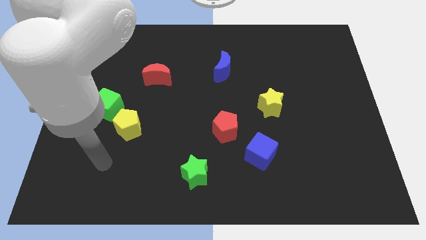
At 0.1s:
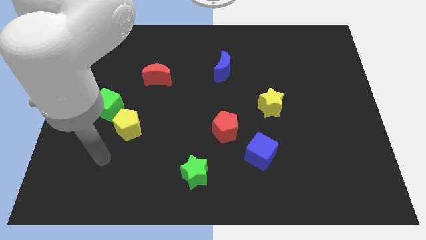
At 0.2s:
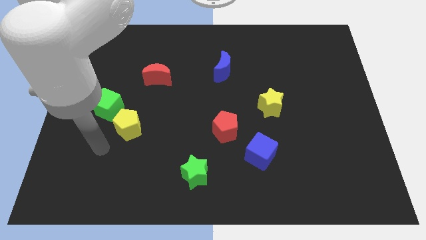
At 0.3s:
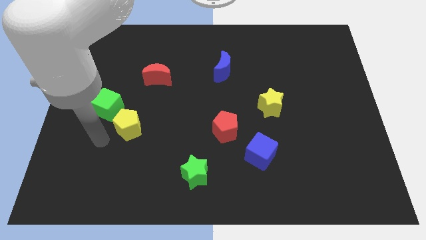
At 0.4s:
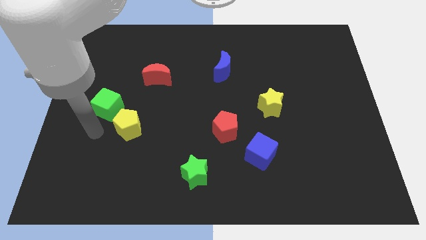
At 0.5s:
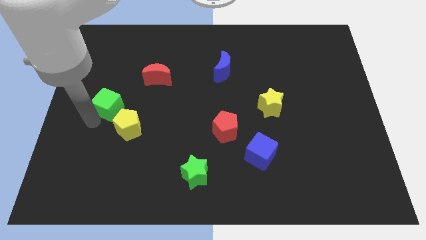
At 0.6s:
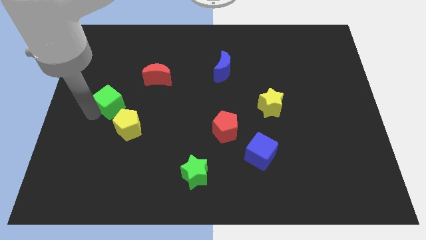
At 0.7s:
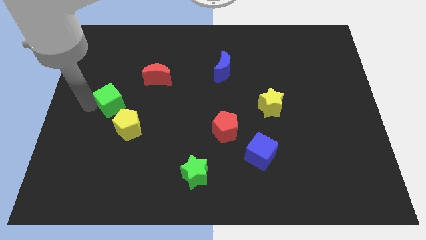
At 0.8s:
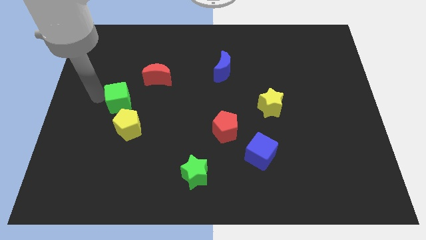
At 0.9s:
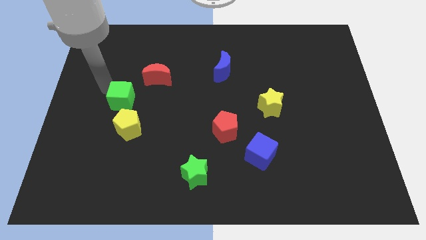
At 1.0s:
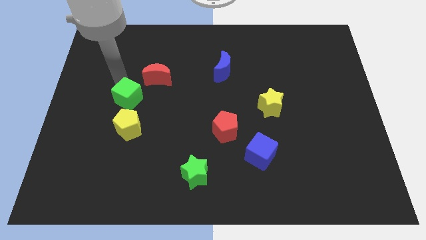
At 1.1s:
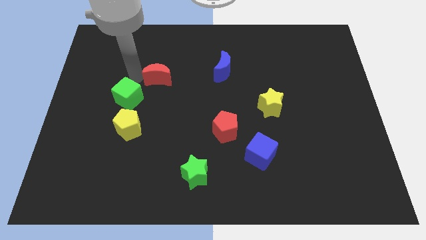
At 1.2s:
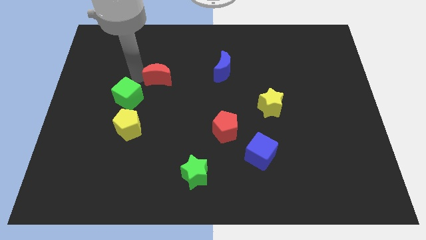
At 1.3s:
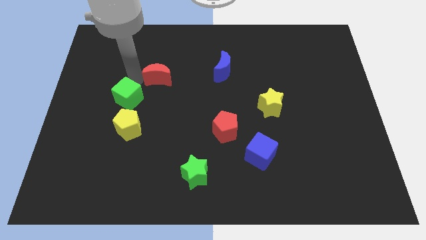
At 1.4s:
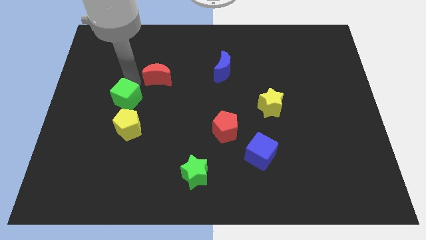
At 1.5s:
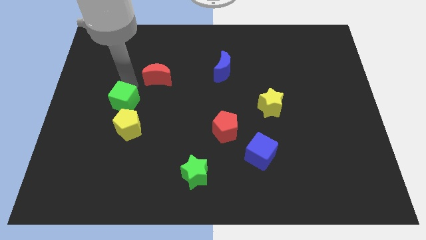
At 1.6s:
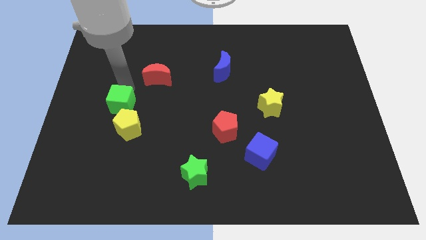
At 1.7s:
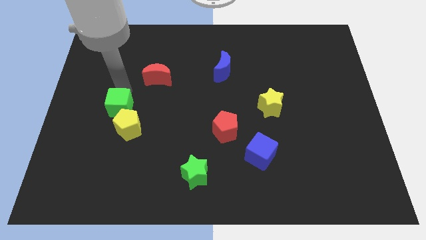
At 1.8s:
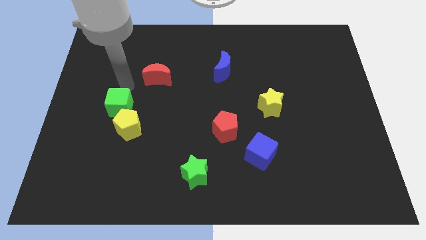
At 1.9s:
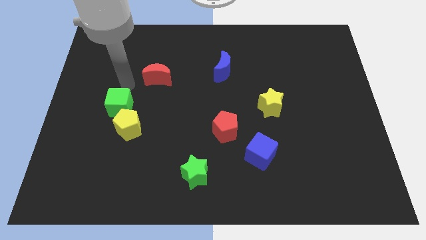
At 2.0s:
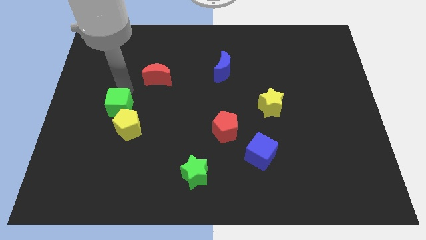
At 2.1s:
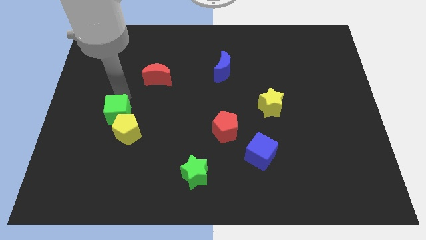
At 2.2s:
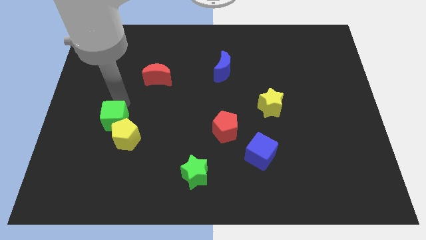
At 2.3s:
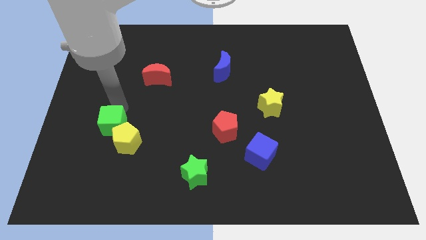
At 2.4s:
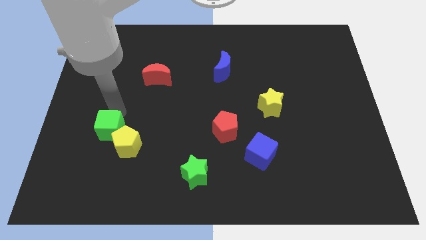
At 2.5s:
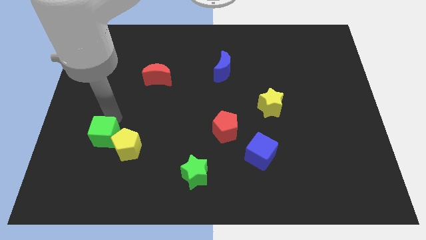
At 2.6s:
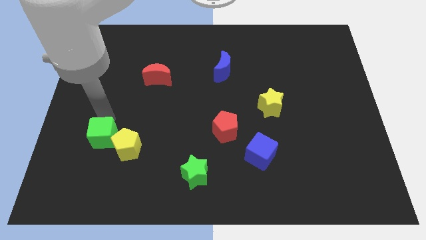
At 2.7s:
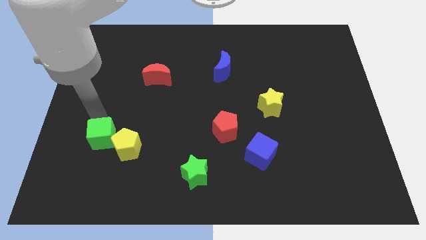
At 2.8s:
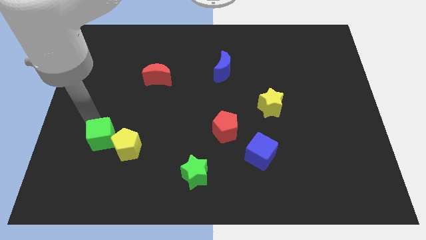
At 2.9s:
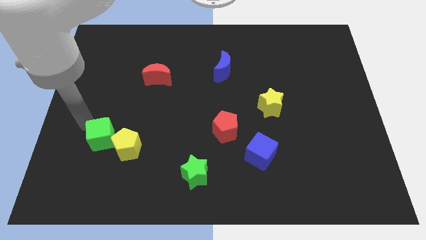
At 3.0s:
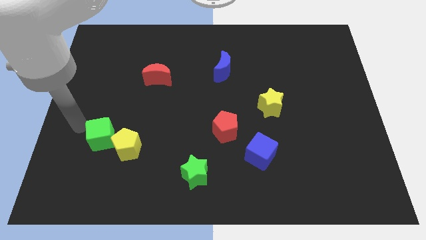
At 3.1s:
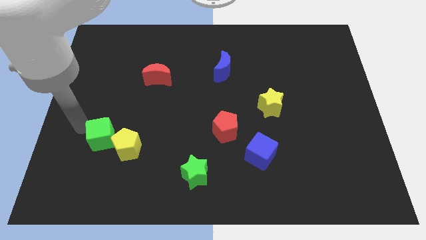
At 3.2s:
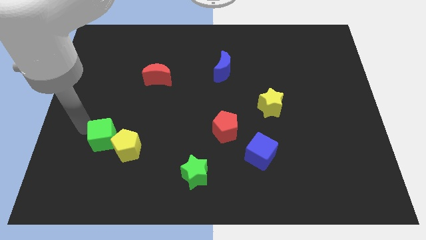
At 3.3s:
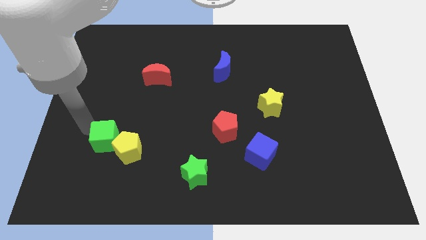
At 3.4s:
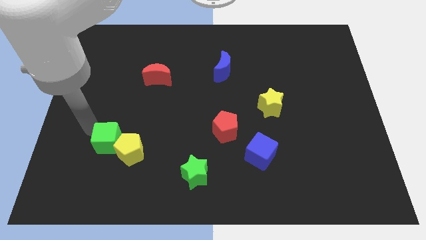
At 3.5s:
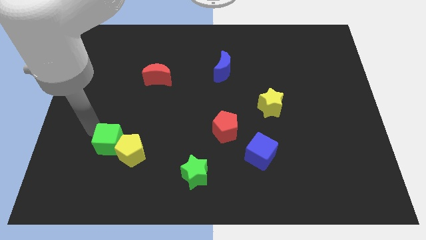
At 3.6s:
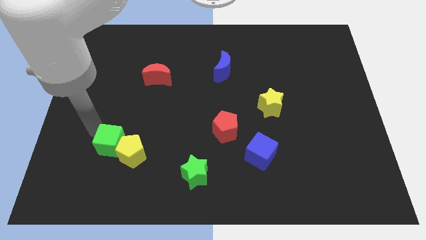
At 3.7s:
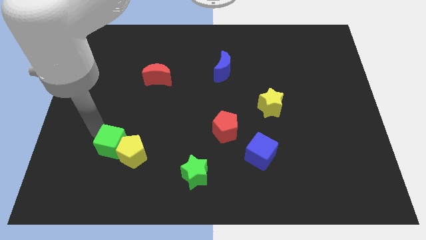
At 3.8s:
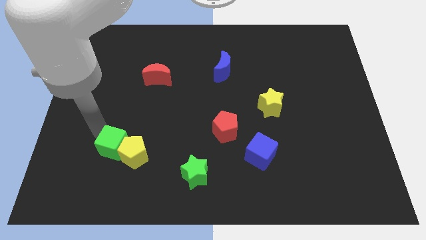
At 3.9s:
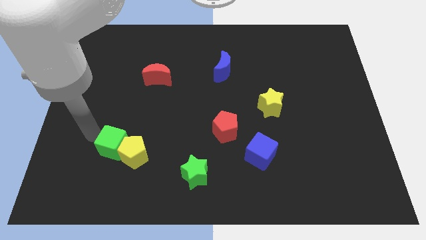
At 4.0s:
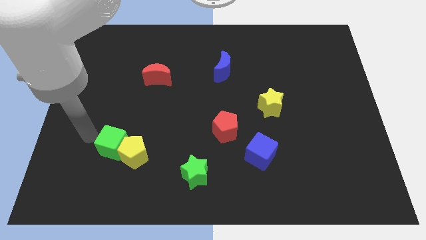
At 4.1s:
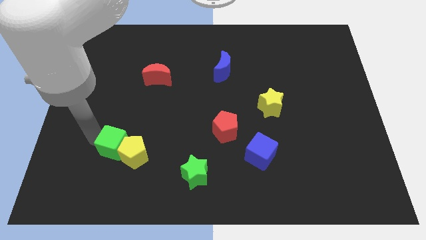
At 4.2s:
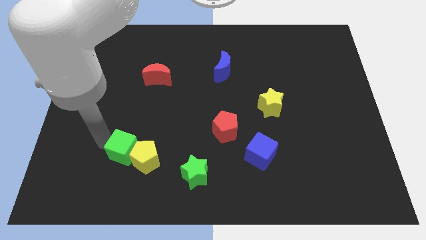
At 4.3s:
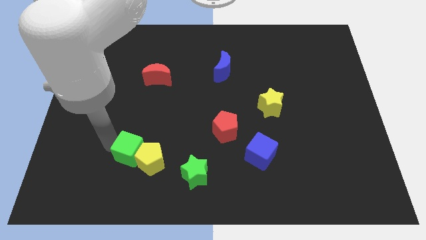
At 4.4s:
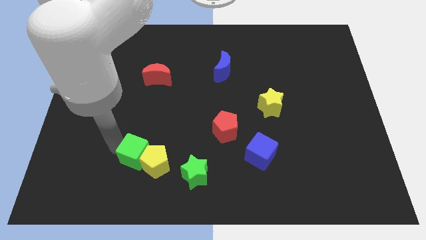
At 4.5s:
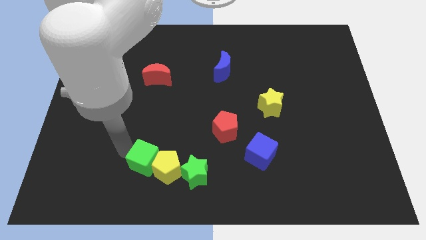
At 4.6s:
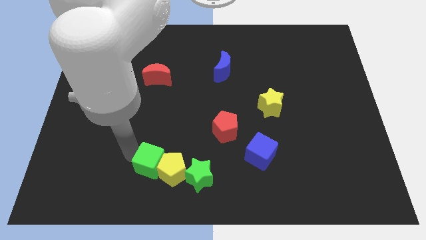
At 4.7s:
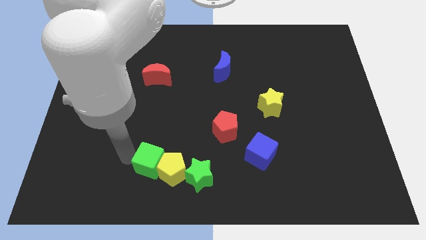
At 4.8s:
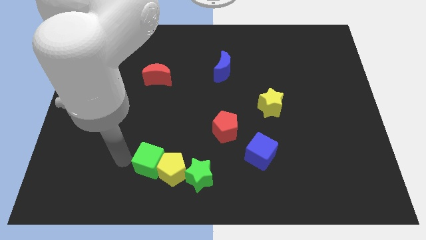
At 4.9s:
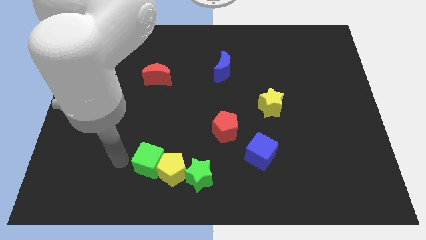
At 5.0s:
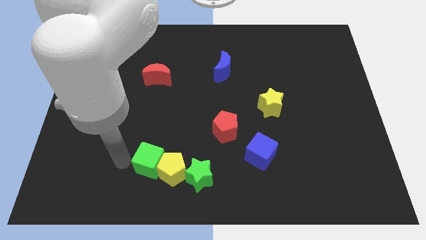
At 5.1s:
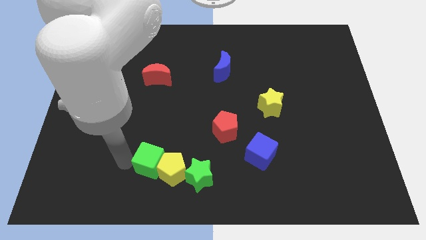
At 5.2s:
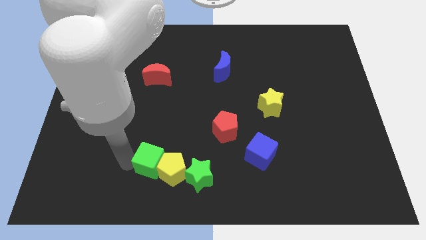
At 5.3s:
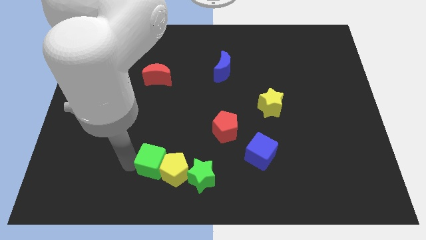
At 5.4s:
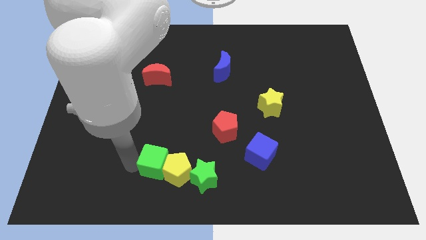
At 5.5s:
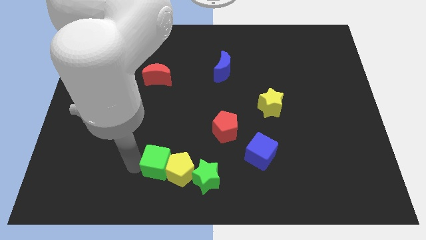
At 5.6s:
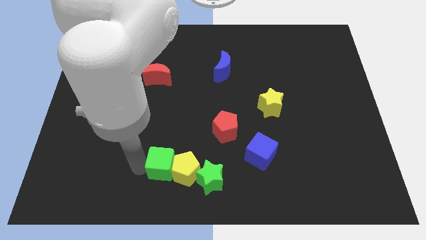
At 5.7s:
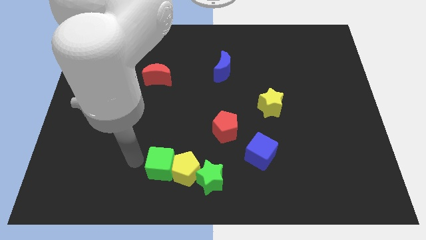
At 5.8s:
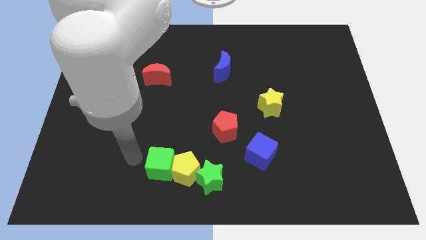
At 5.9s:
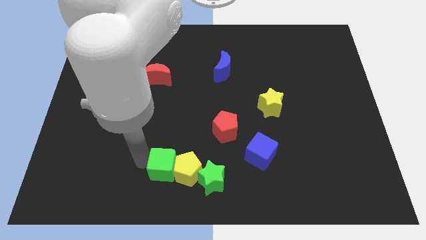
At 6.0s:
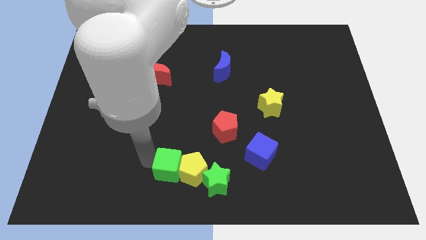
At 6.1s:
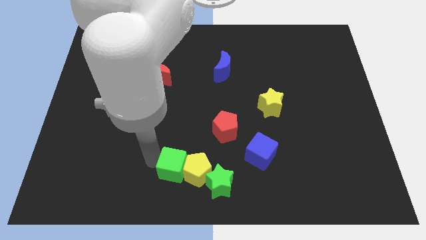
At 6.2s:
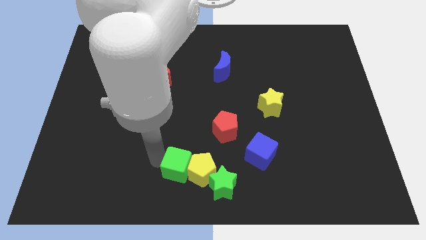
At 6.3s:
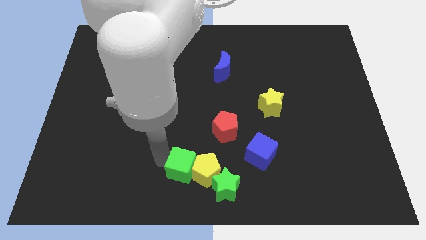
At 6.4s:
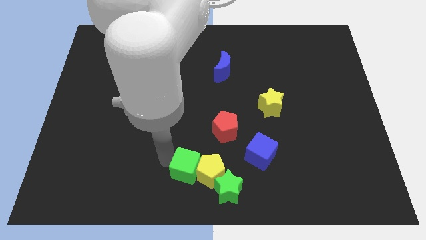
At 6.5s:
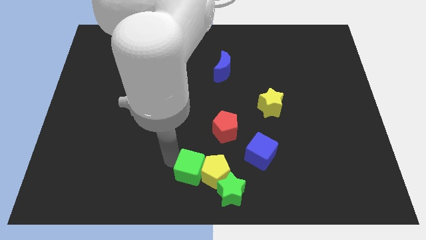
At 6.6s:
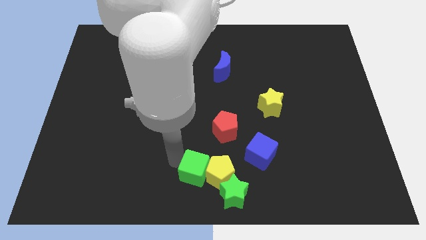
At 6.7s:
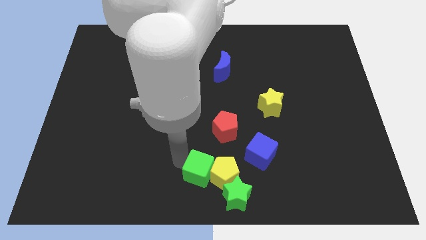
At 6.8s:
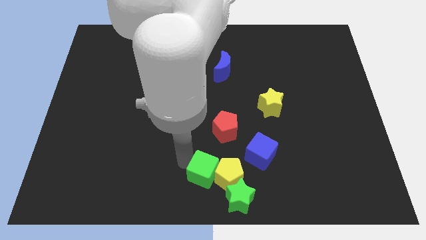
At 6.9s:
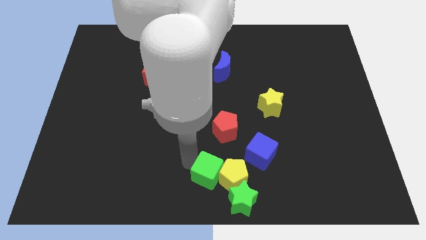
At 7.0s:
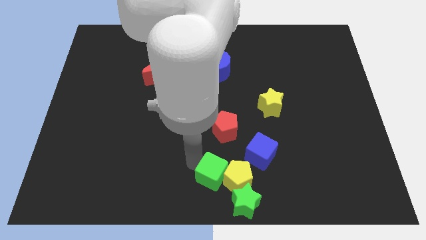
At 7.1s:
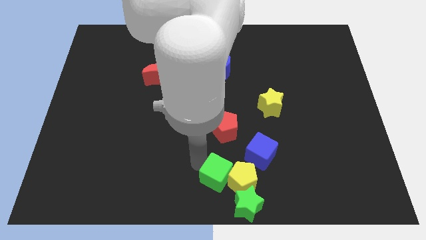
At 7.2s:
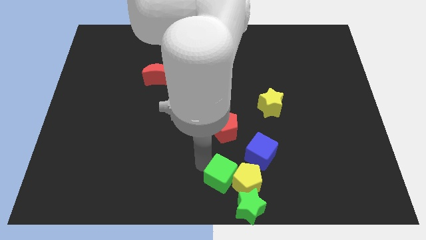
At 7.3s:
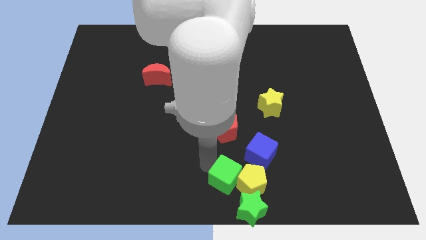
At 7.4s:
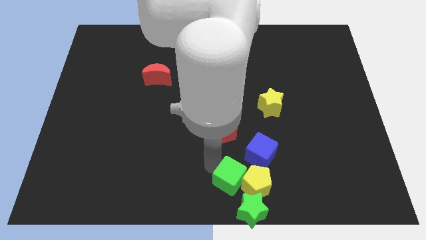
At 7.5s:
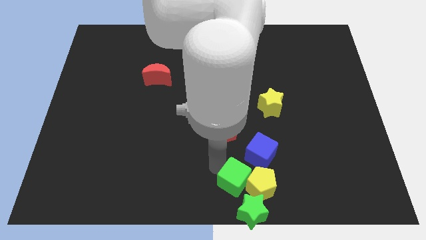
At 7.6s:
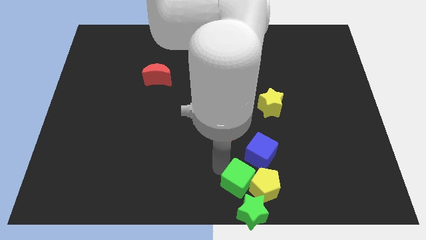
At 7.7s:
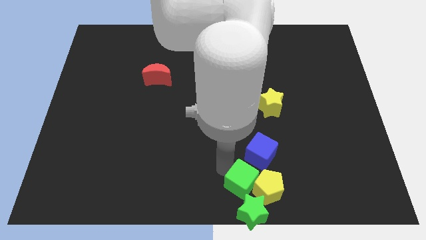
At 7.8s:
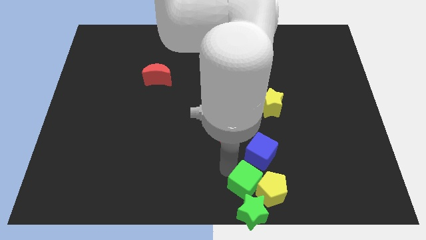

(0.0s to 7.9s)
put the green cube to the green star
